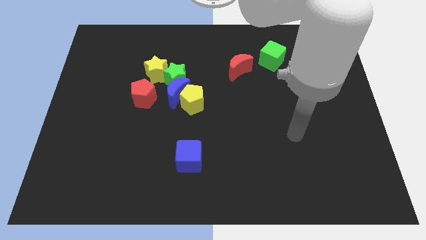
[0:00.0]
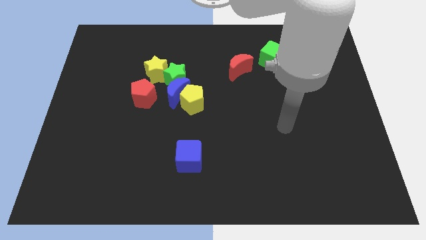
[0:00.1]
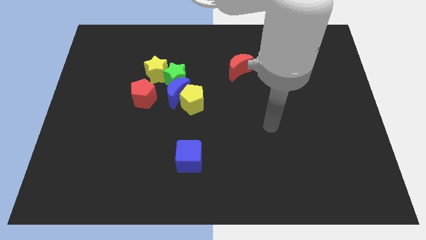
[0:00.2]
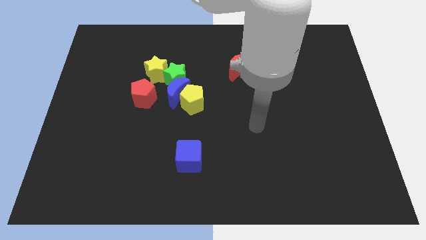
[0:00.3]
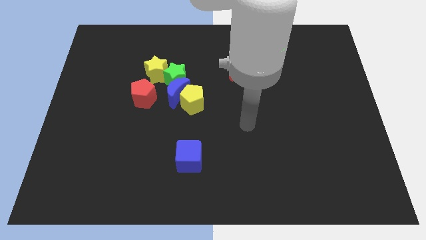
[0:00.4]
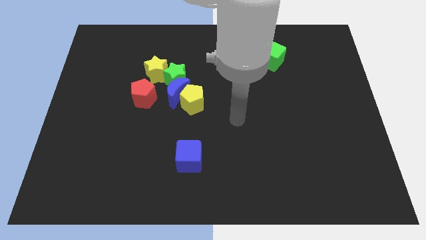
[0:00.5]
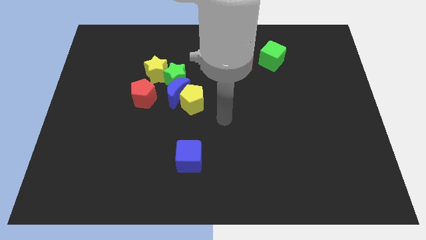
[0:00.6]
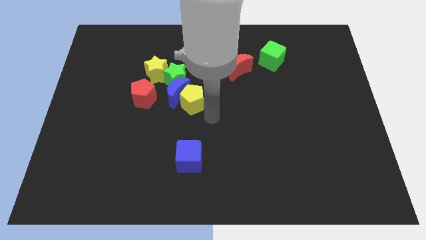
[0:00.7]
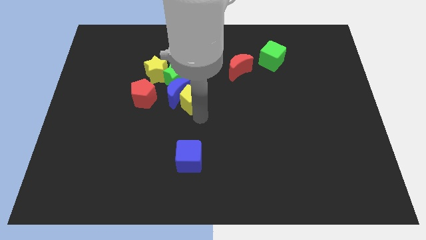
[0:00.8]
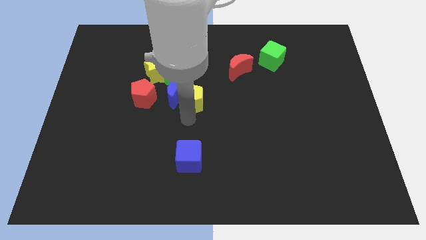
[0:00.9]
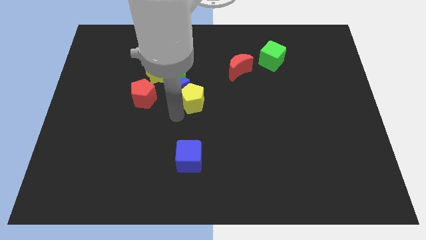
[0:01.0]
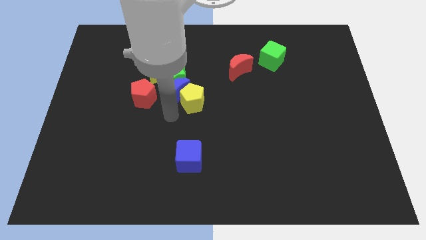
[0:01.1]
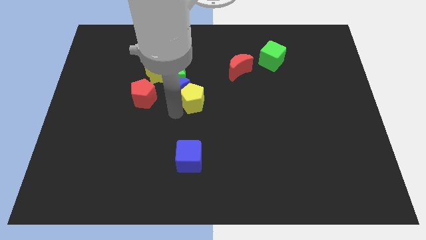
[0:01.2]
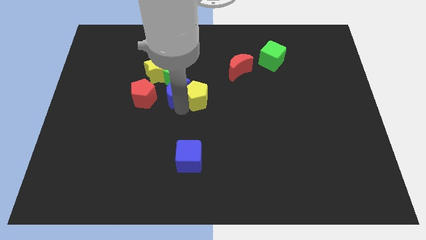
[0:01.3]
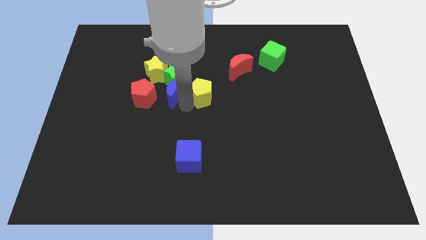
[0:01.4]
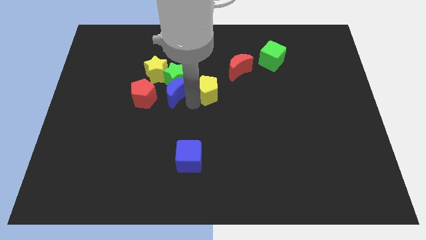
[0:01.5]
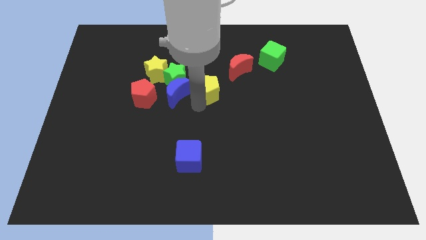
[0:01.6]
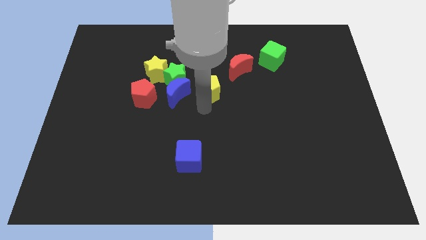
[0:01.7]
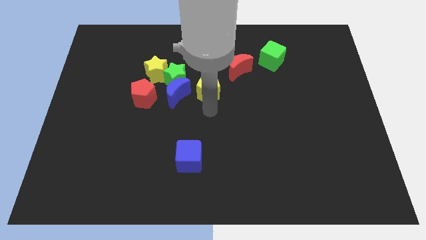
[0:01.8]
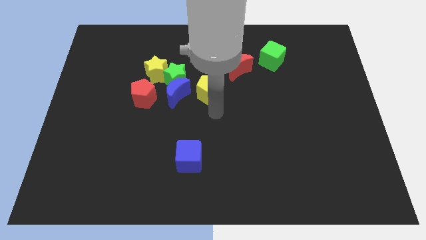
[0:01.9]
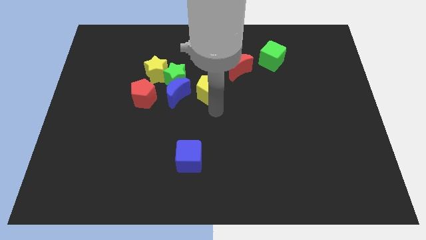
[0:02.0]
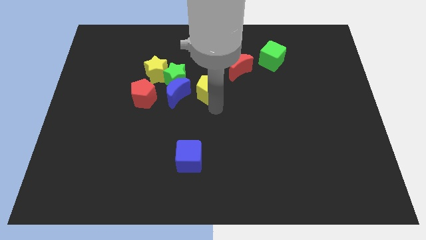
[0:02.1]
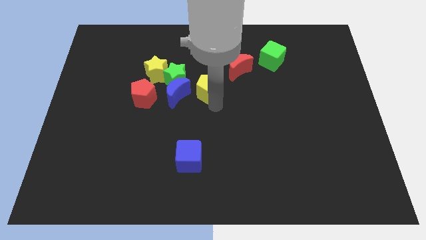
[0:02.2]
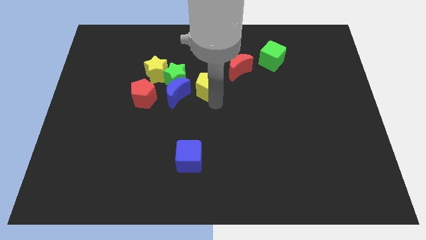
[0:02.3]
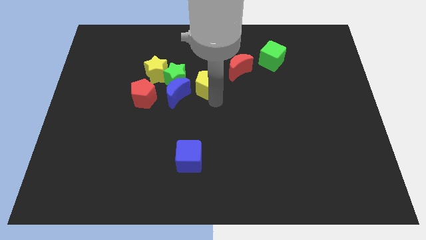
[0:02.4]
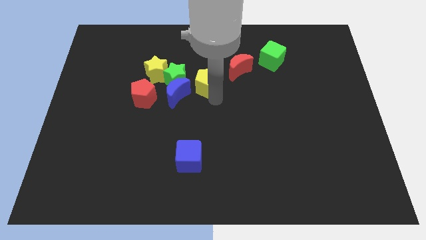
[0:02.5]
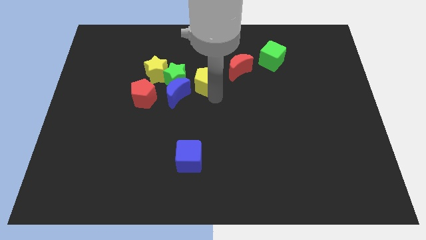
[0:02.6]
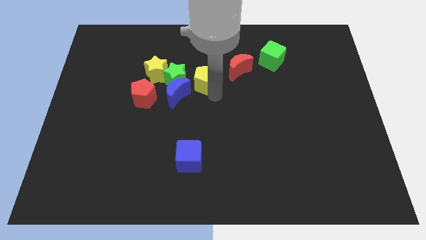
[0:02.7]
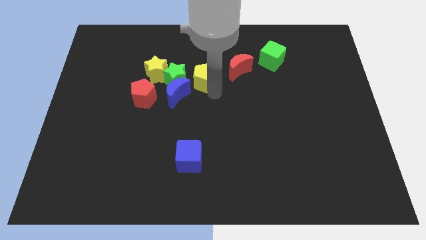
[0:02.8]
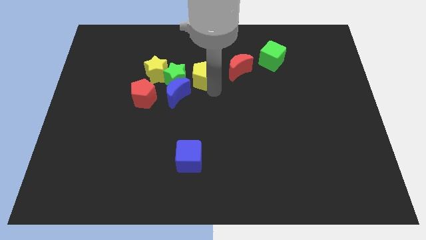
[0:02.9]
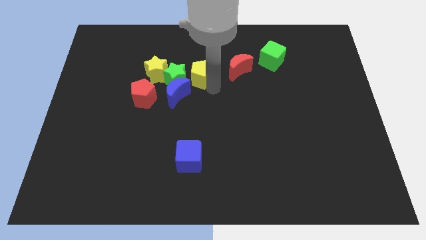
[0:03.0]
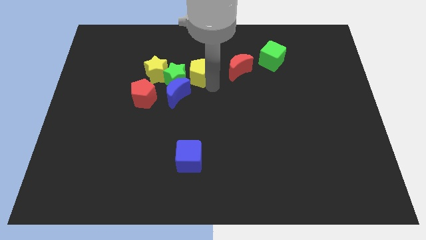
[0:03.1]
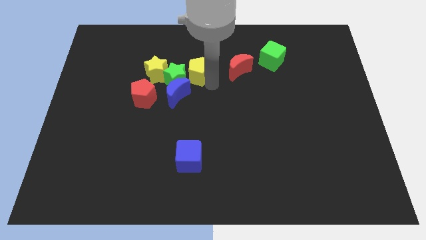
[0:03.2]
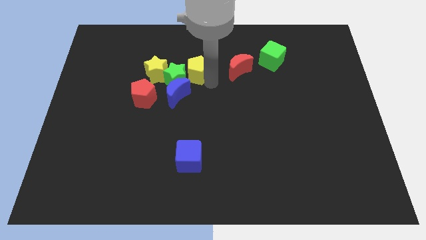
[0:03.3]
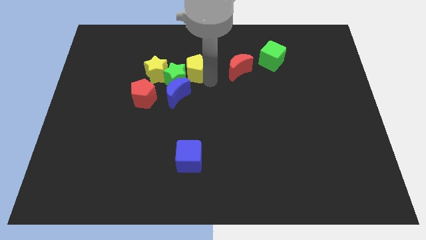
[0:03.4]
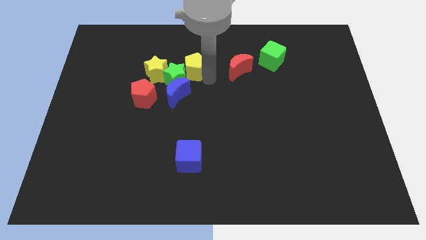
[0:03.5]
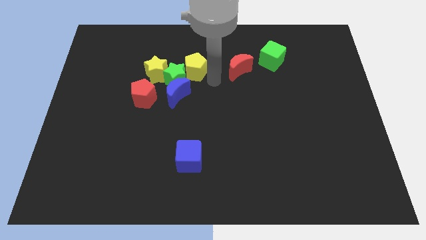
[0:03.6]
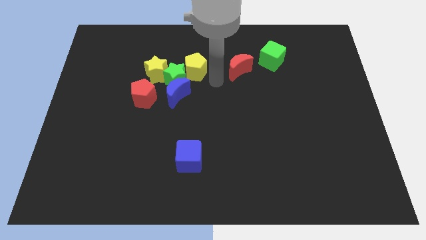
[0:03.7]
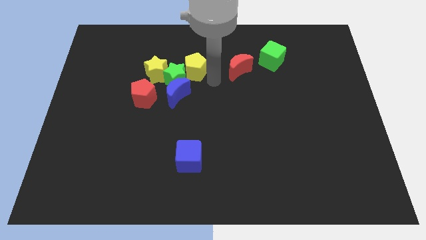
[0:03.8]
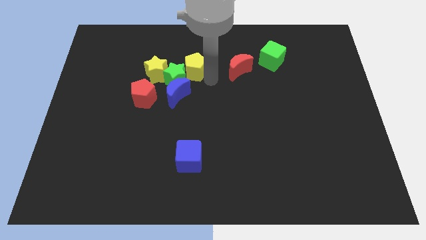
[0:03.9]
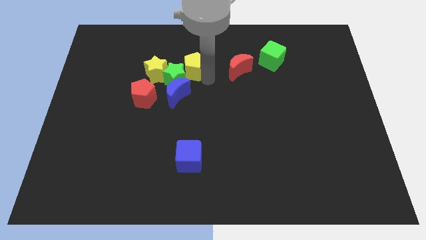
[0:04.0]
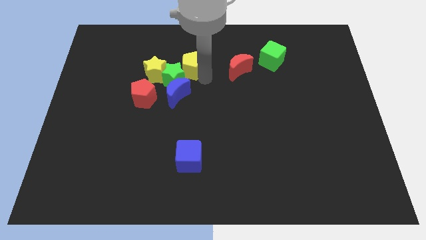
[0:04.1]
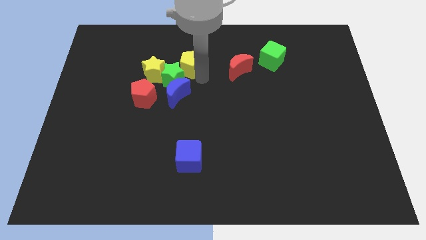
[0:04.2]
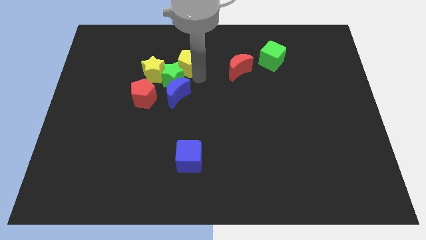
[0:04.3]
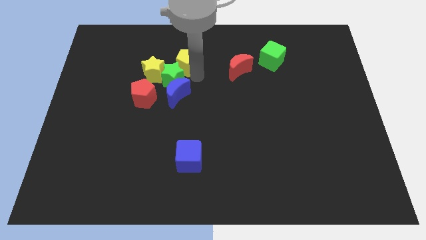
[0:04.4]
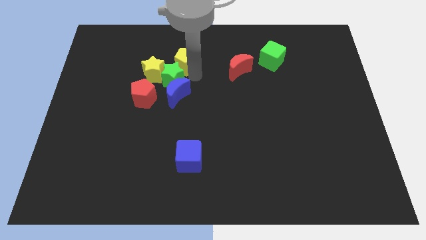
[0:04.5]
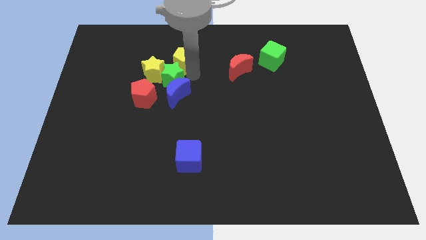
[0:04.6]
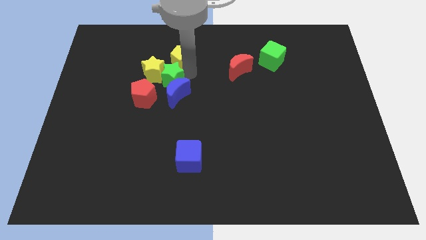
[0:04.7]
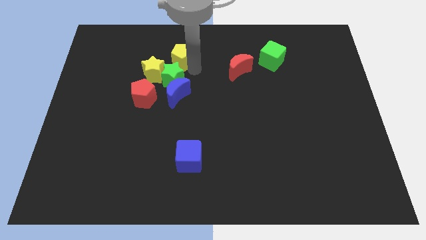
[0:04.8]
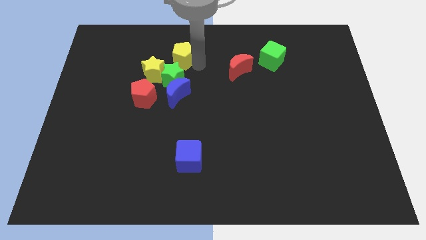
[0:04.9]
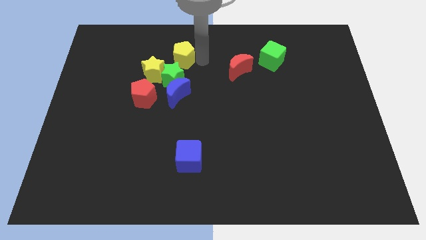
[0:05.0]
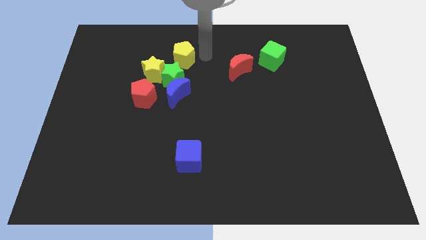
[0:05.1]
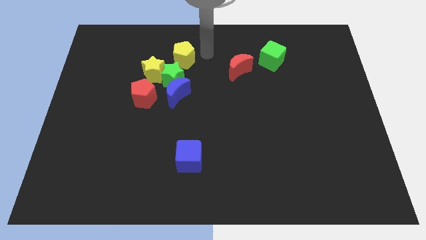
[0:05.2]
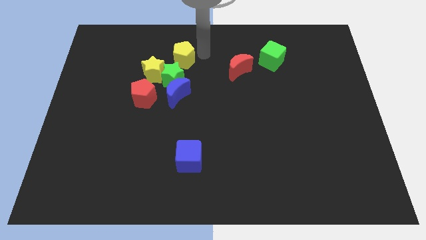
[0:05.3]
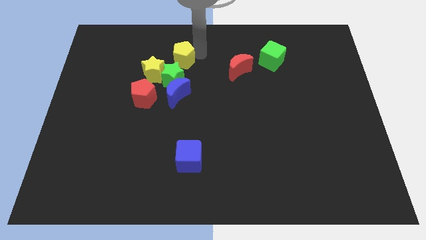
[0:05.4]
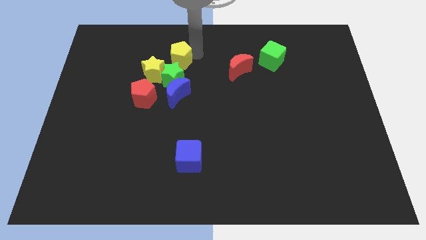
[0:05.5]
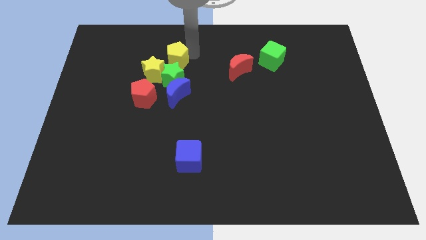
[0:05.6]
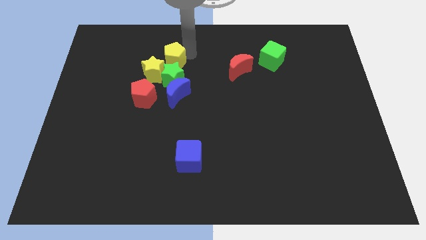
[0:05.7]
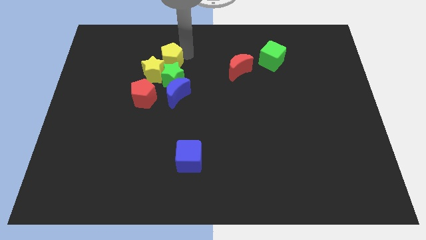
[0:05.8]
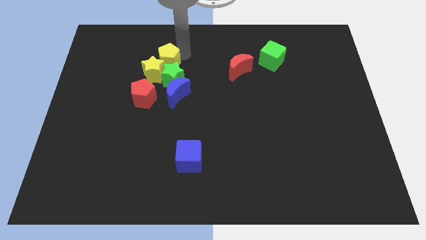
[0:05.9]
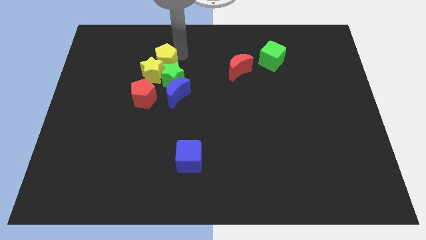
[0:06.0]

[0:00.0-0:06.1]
put the yellow pentagon to the top side of the red pentagon

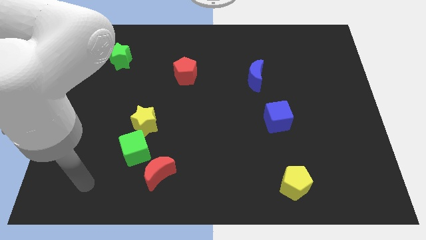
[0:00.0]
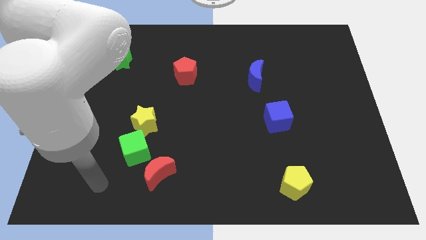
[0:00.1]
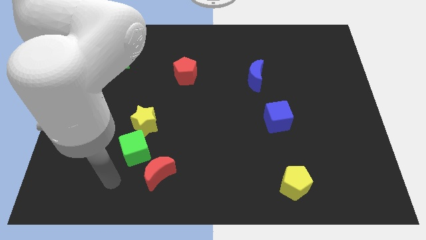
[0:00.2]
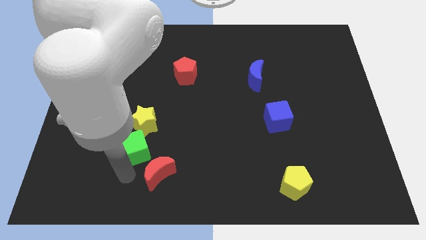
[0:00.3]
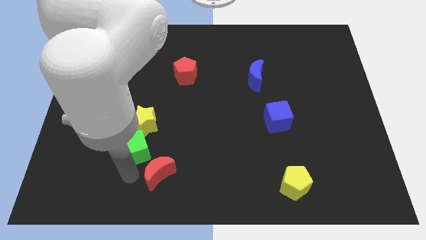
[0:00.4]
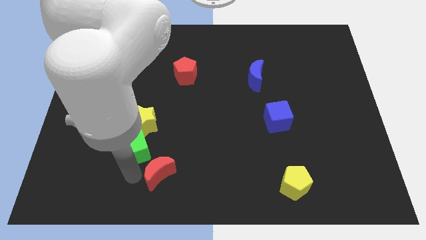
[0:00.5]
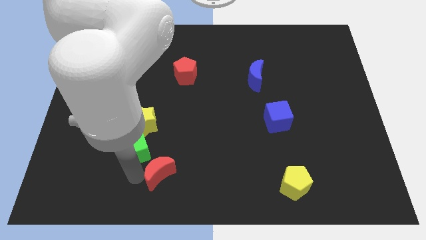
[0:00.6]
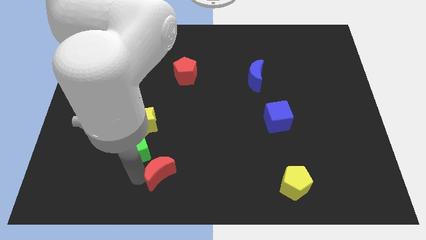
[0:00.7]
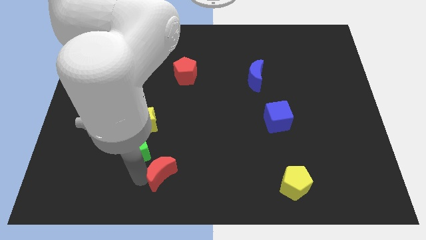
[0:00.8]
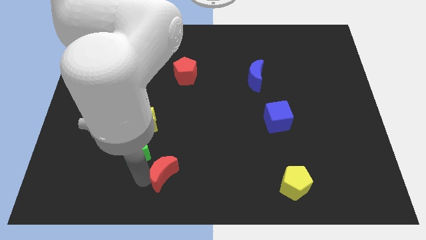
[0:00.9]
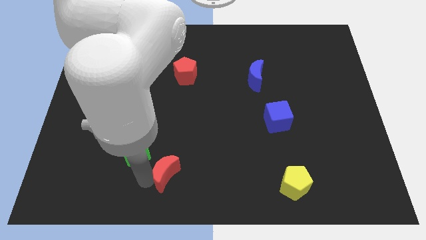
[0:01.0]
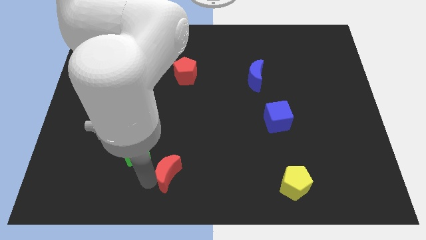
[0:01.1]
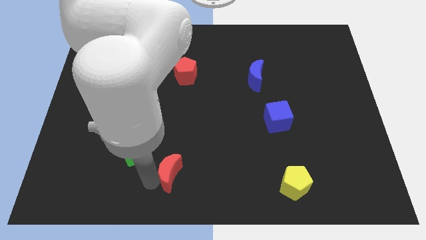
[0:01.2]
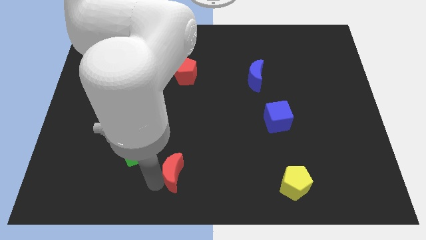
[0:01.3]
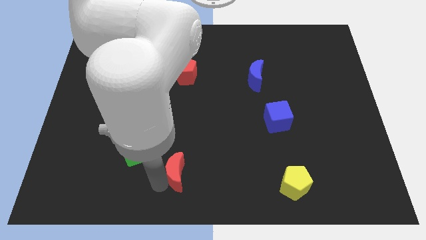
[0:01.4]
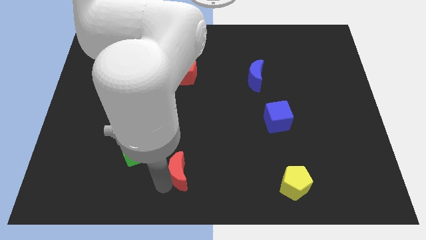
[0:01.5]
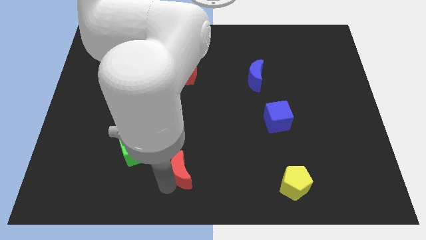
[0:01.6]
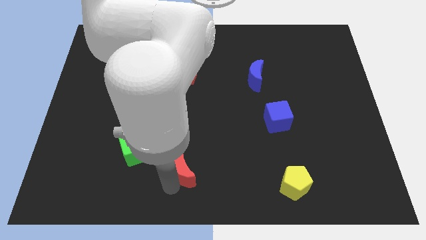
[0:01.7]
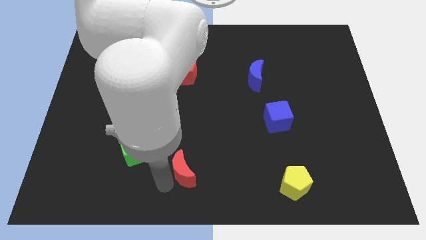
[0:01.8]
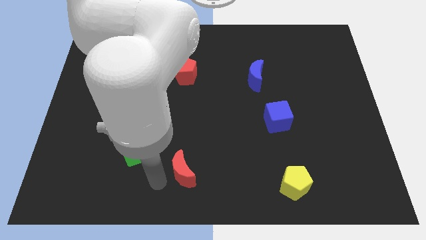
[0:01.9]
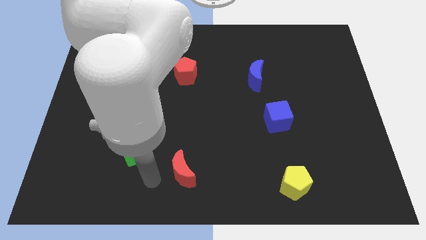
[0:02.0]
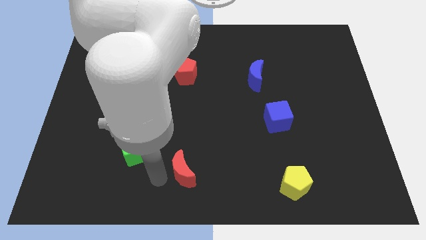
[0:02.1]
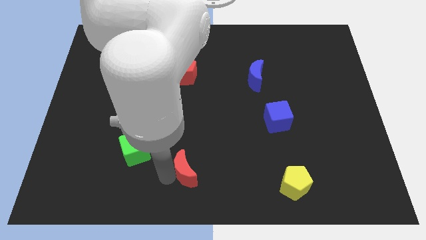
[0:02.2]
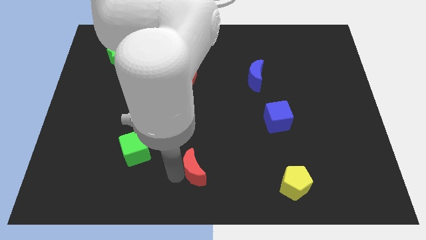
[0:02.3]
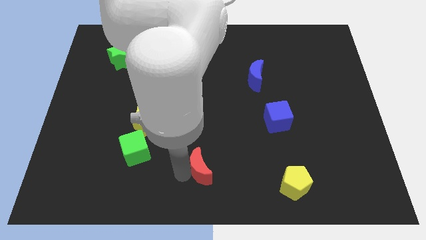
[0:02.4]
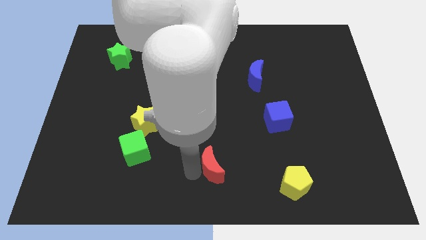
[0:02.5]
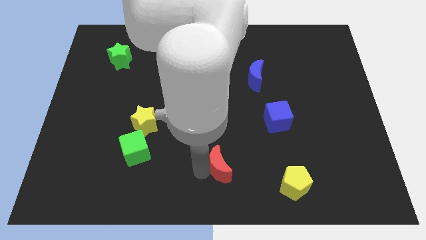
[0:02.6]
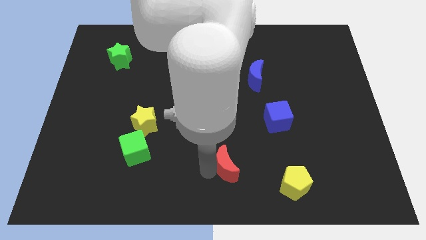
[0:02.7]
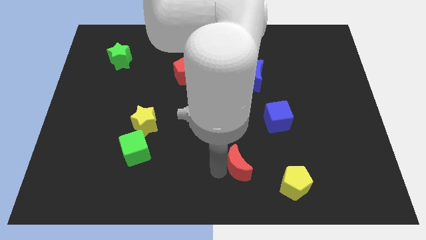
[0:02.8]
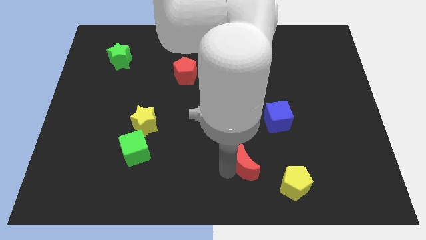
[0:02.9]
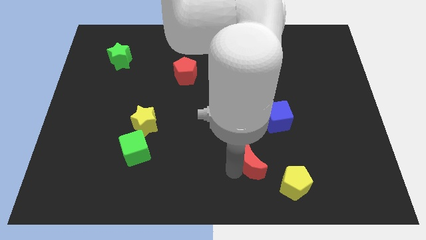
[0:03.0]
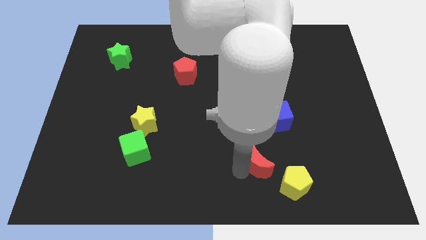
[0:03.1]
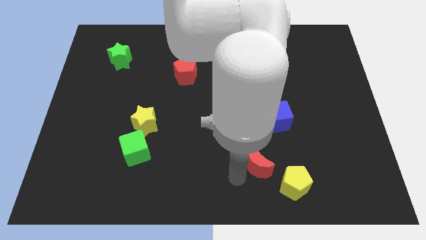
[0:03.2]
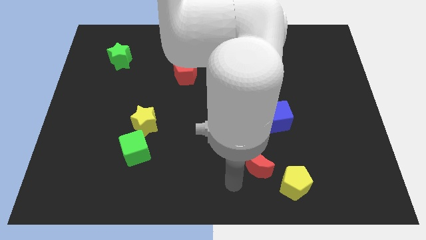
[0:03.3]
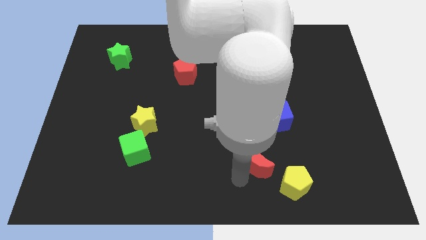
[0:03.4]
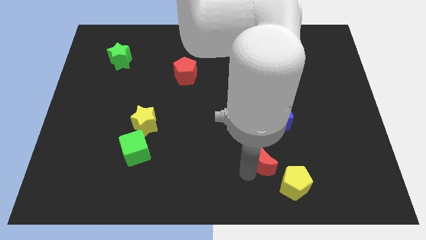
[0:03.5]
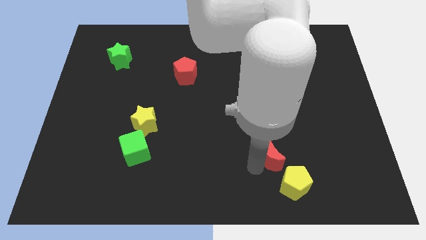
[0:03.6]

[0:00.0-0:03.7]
slide the red moon to the top side of the yellow pentagon
